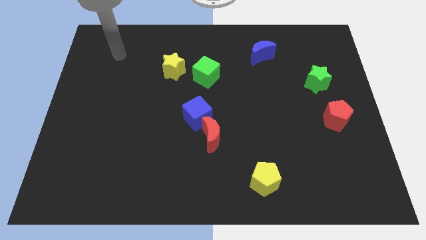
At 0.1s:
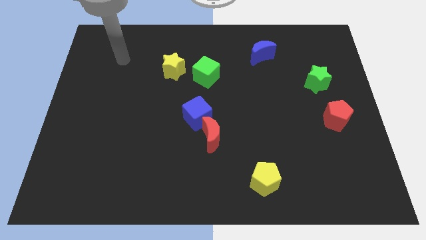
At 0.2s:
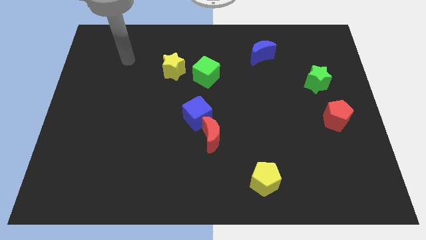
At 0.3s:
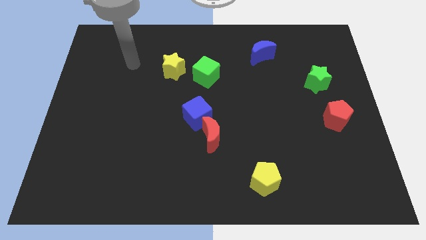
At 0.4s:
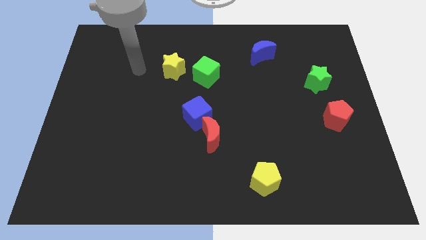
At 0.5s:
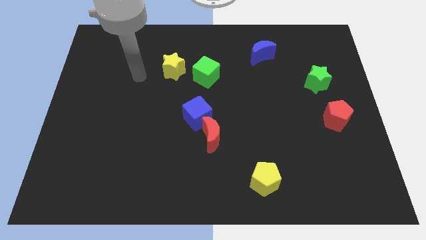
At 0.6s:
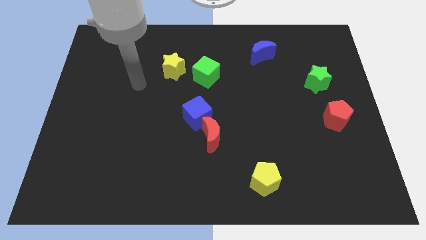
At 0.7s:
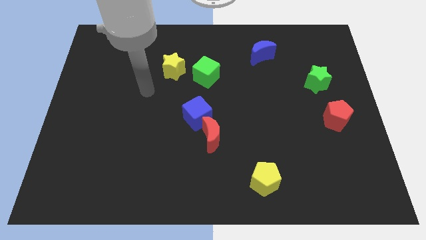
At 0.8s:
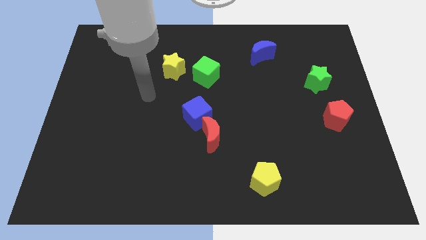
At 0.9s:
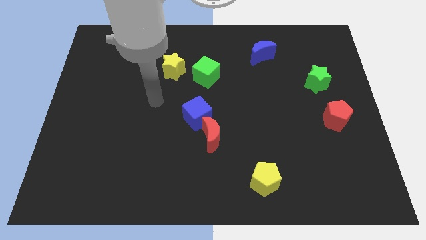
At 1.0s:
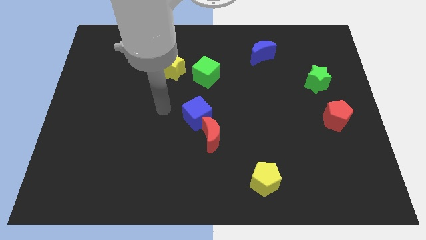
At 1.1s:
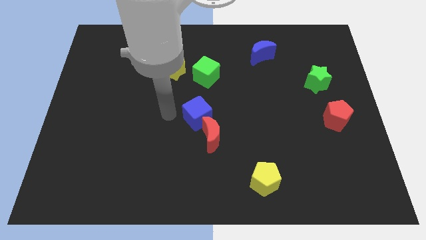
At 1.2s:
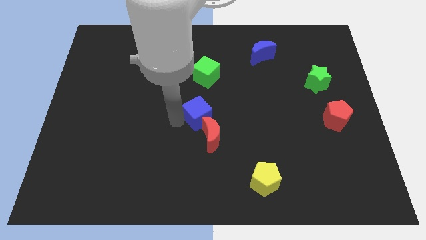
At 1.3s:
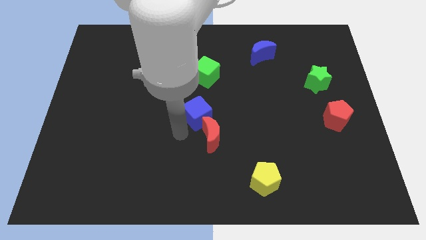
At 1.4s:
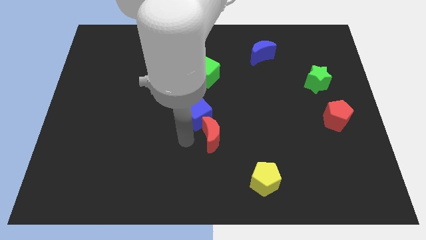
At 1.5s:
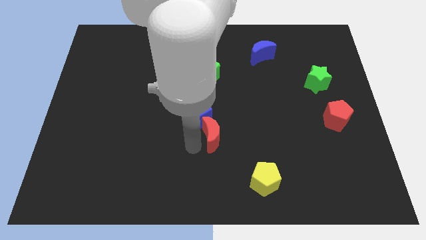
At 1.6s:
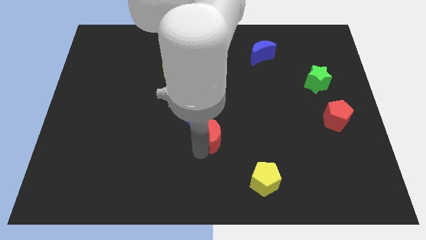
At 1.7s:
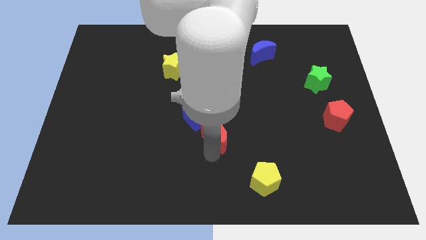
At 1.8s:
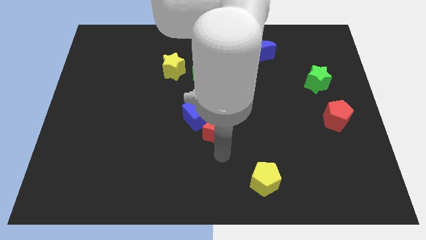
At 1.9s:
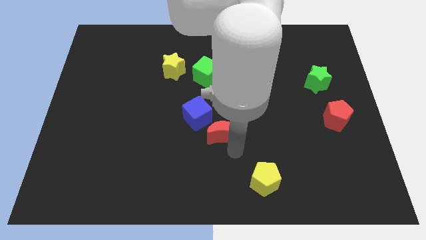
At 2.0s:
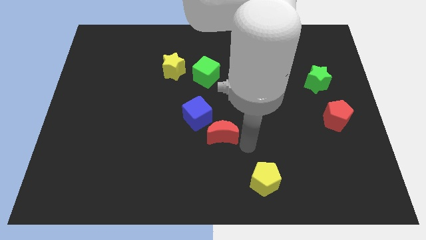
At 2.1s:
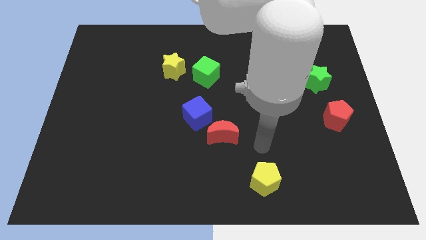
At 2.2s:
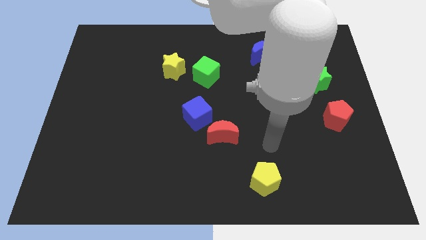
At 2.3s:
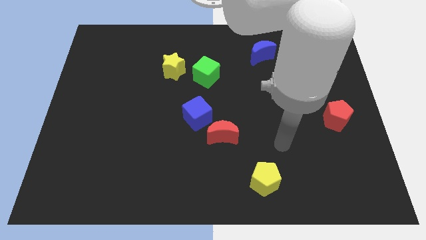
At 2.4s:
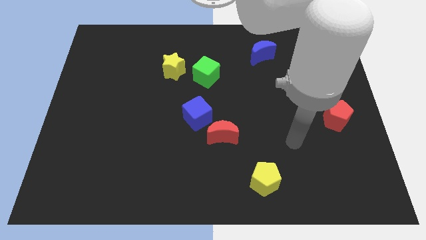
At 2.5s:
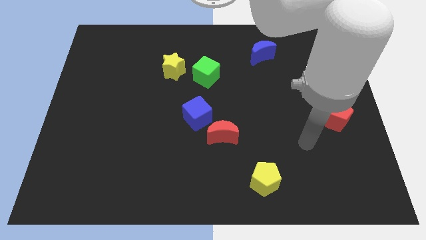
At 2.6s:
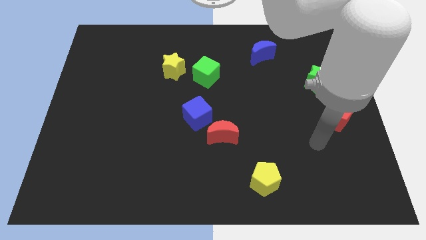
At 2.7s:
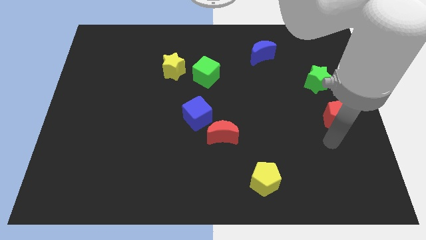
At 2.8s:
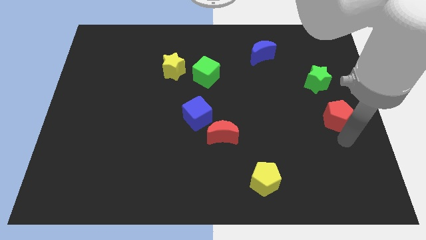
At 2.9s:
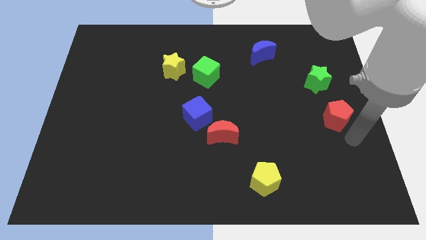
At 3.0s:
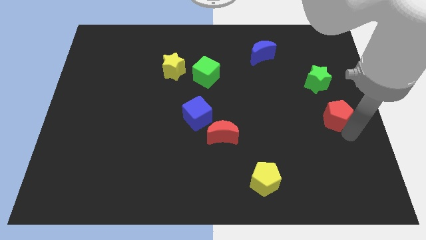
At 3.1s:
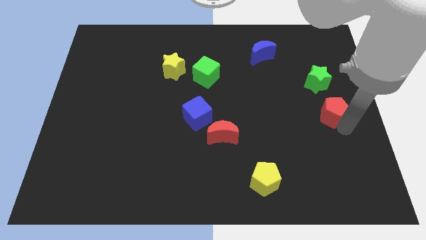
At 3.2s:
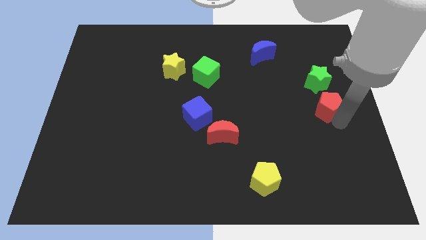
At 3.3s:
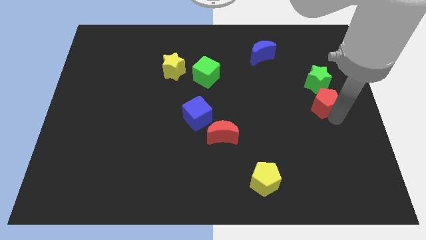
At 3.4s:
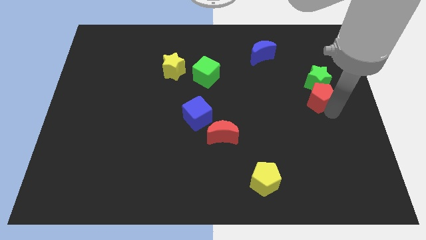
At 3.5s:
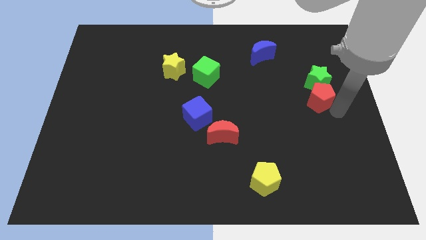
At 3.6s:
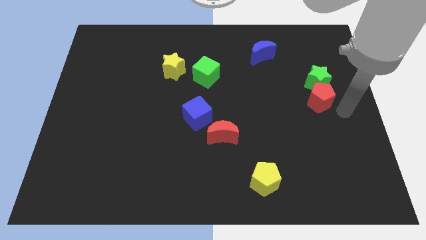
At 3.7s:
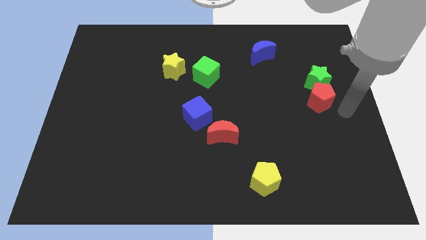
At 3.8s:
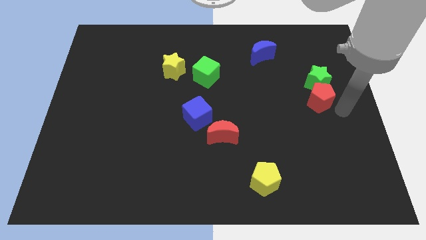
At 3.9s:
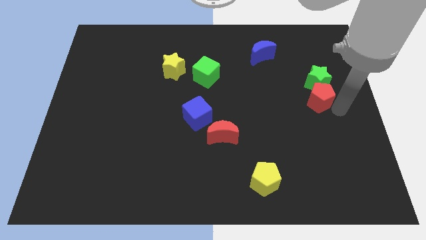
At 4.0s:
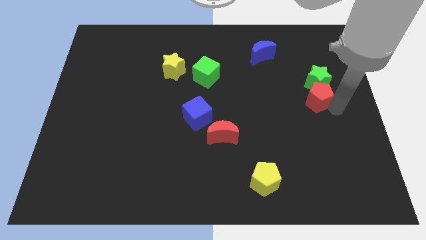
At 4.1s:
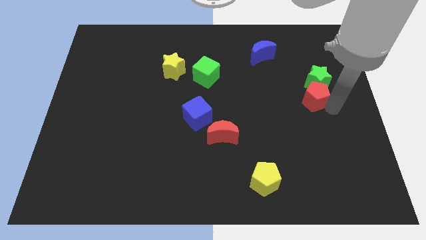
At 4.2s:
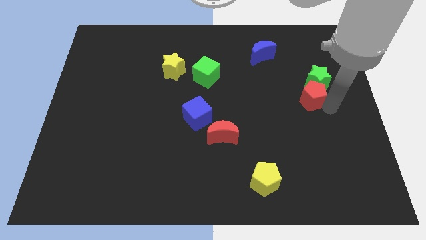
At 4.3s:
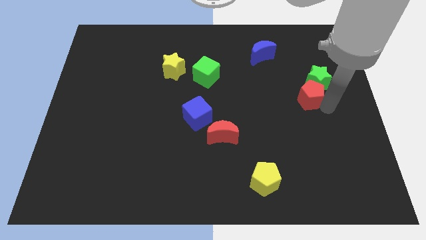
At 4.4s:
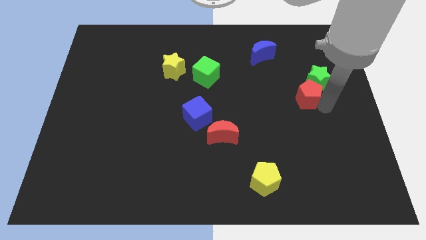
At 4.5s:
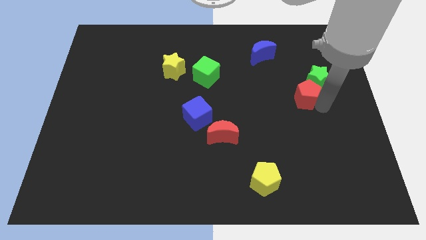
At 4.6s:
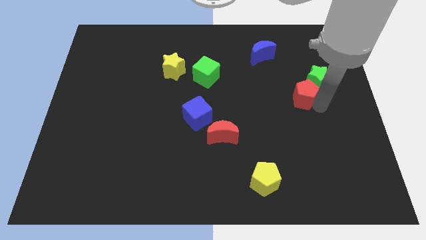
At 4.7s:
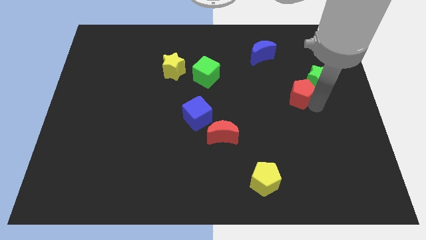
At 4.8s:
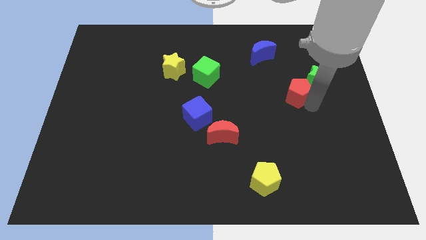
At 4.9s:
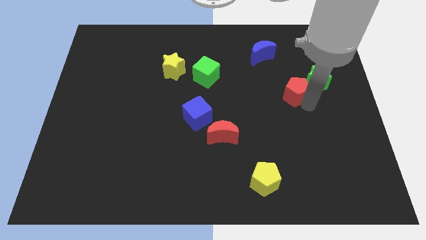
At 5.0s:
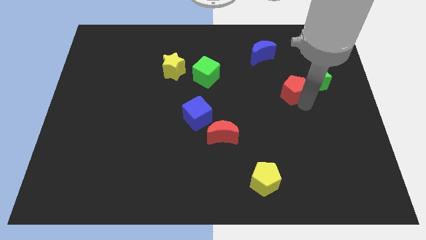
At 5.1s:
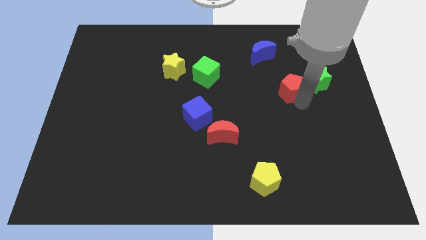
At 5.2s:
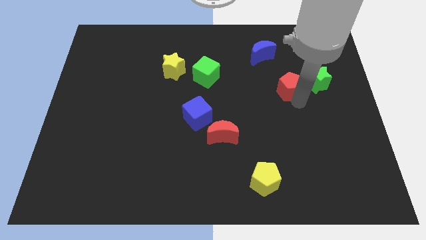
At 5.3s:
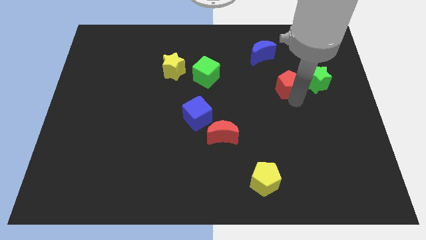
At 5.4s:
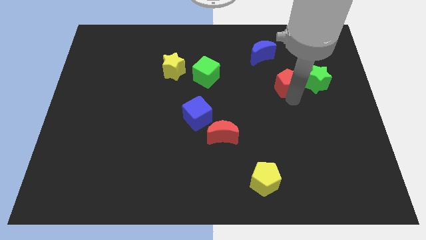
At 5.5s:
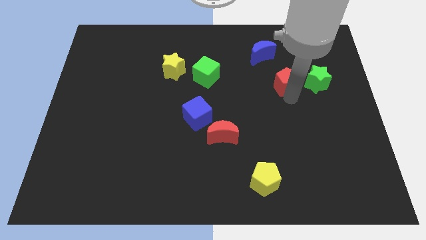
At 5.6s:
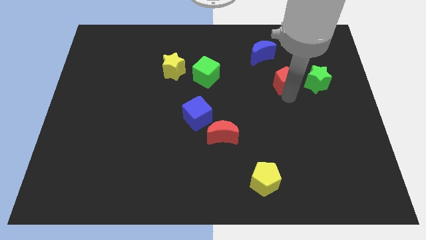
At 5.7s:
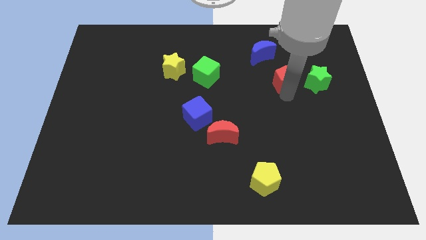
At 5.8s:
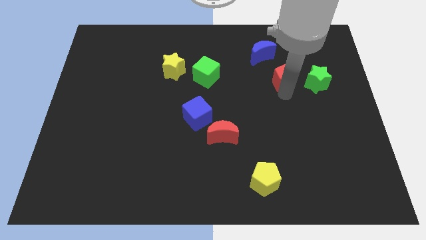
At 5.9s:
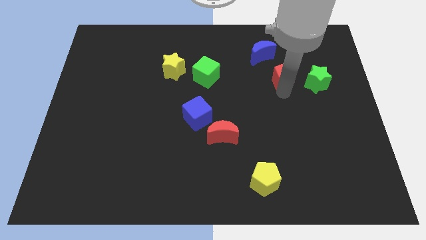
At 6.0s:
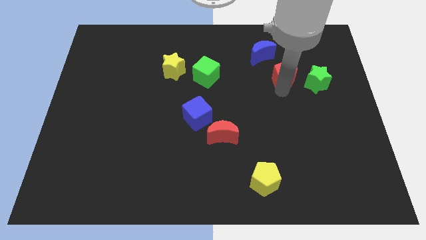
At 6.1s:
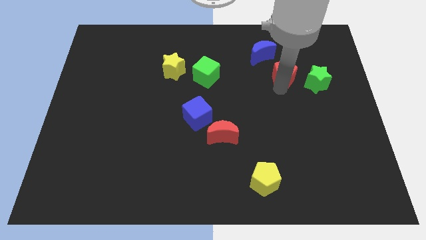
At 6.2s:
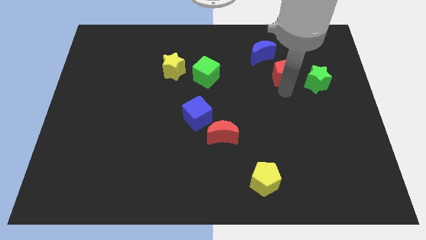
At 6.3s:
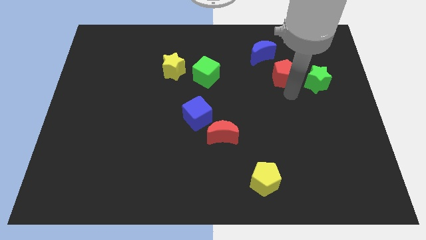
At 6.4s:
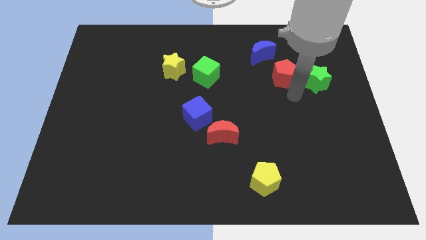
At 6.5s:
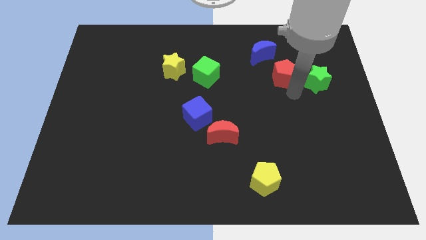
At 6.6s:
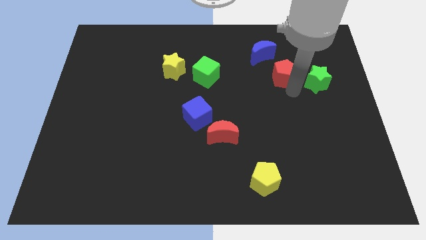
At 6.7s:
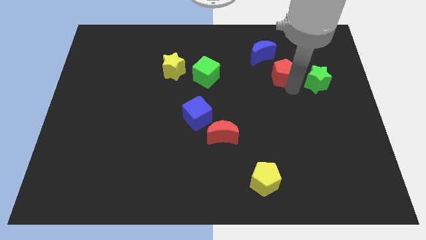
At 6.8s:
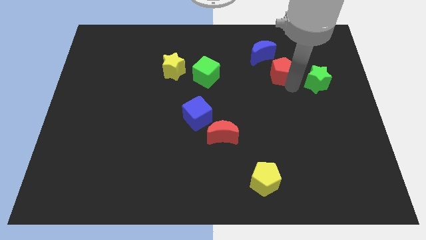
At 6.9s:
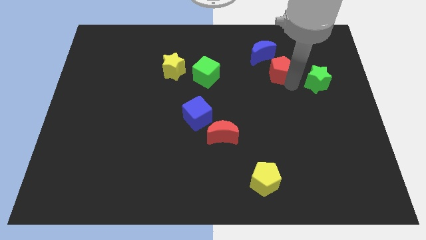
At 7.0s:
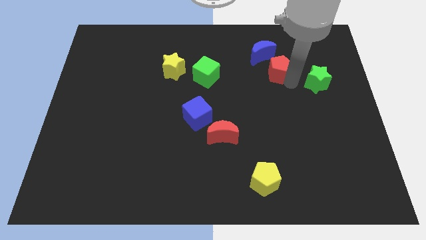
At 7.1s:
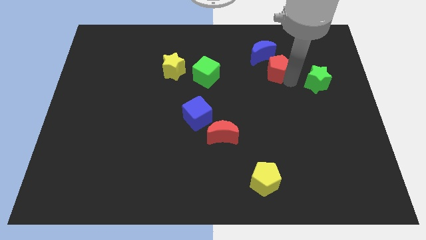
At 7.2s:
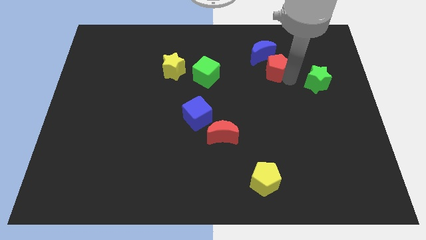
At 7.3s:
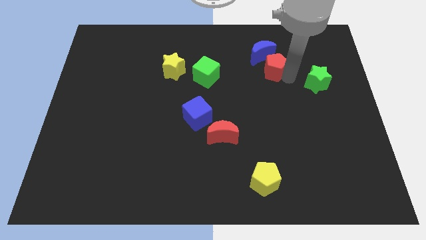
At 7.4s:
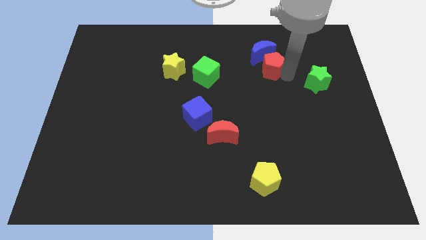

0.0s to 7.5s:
move the red pentagon towards the blue moon
